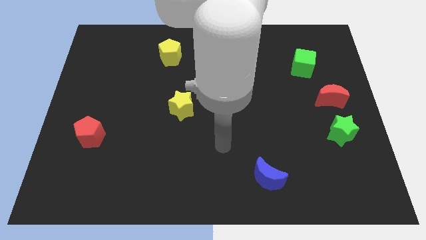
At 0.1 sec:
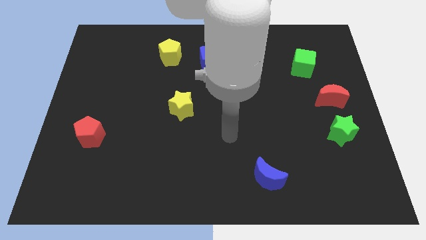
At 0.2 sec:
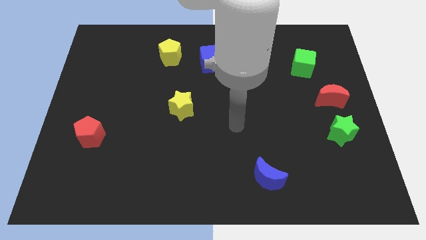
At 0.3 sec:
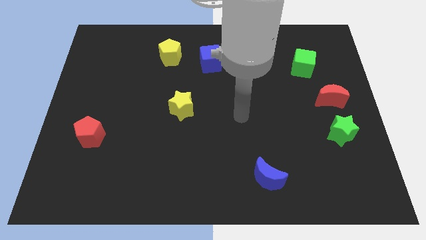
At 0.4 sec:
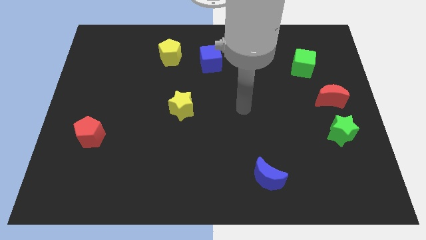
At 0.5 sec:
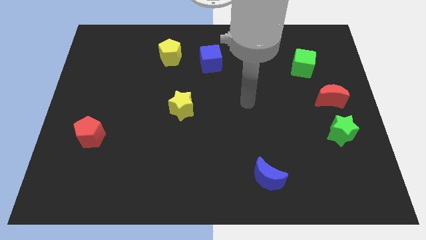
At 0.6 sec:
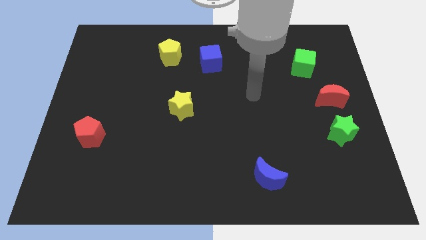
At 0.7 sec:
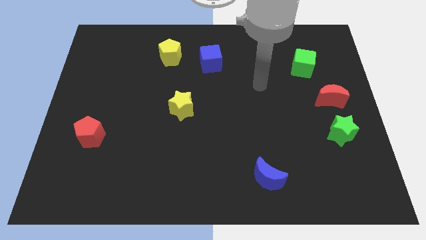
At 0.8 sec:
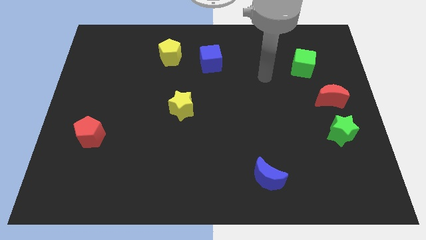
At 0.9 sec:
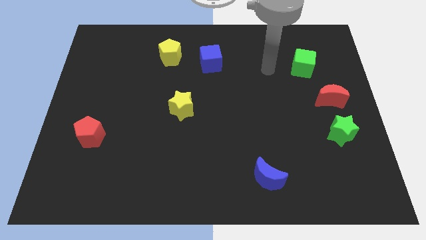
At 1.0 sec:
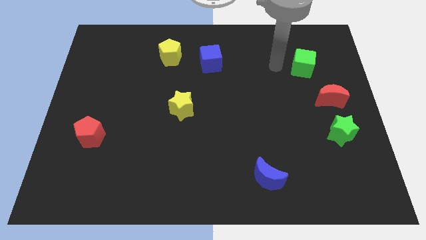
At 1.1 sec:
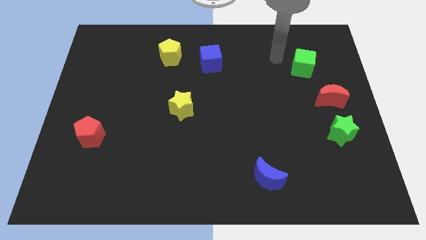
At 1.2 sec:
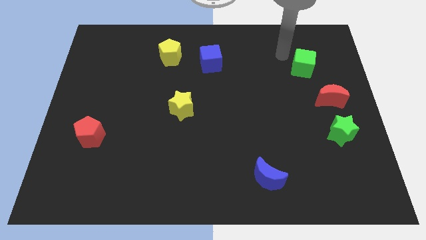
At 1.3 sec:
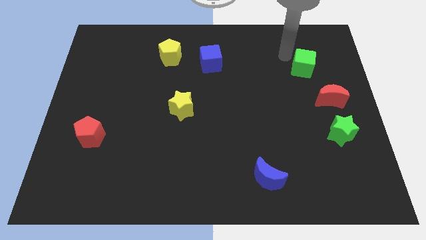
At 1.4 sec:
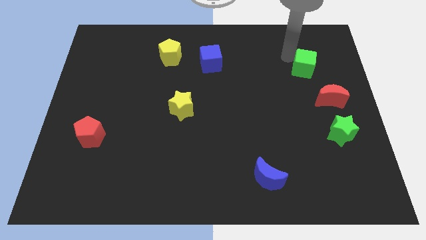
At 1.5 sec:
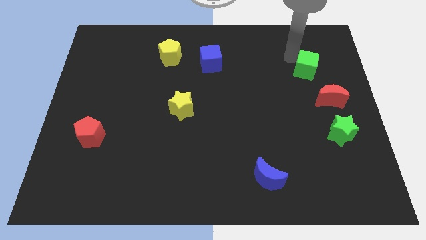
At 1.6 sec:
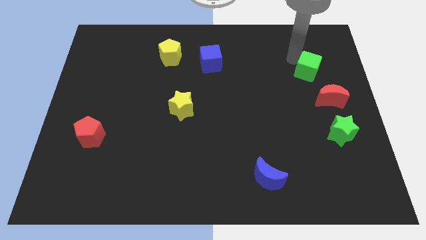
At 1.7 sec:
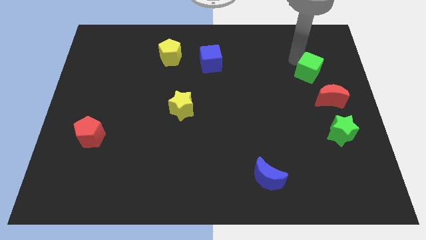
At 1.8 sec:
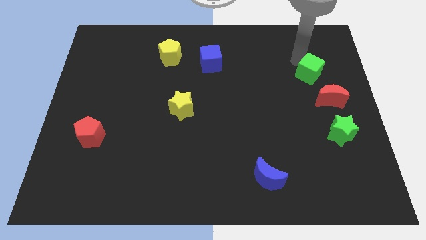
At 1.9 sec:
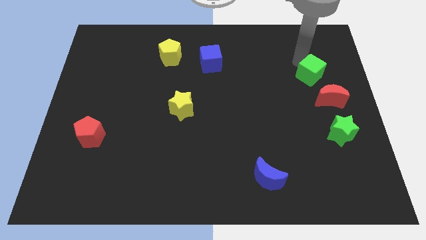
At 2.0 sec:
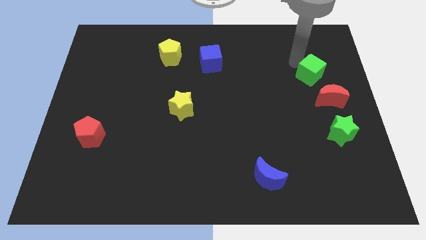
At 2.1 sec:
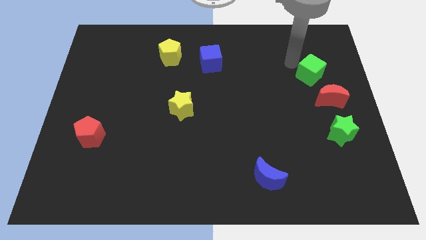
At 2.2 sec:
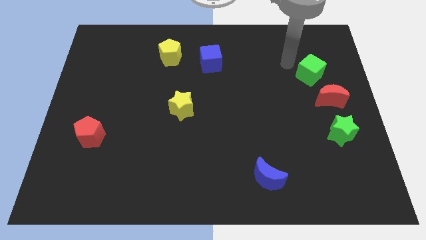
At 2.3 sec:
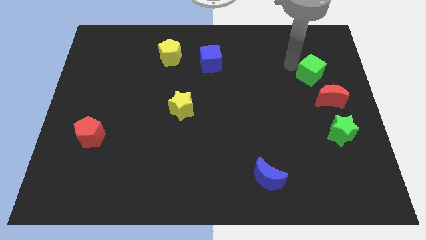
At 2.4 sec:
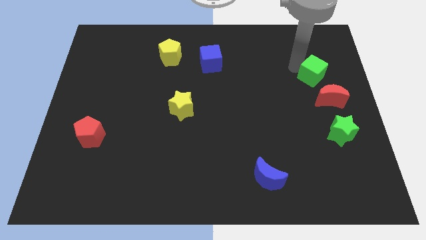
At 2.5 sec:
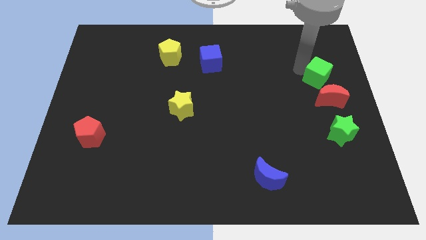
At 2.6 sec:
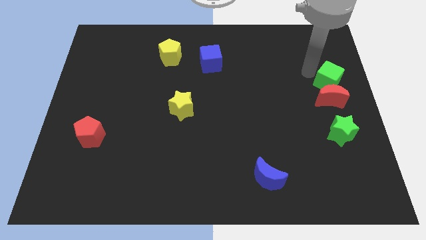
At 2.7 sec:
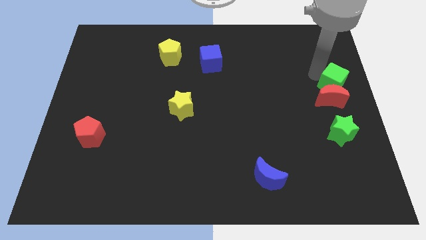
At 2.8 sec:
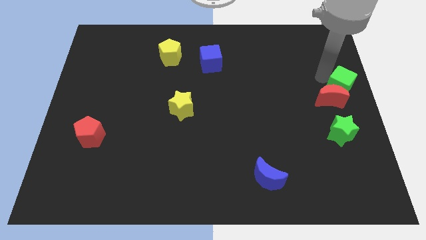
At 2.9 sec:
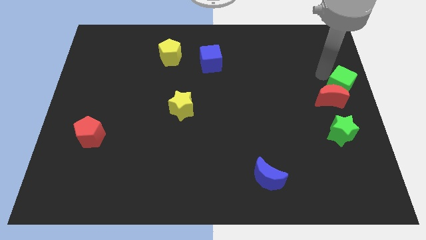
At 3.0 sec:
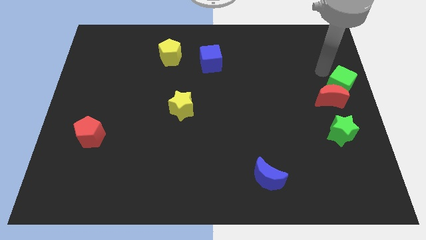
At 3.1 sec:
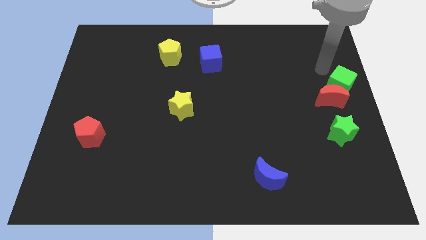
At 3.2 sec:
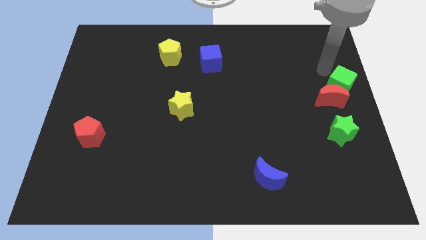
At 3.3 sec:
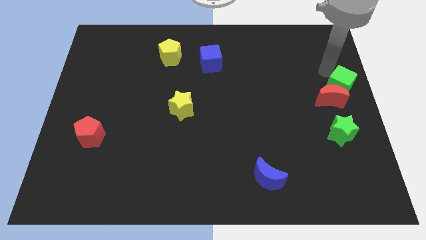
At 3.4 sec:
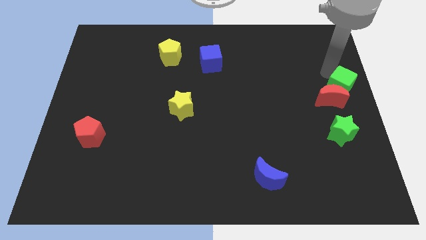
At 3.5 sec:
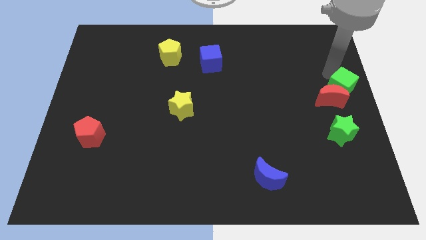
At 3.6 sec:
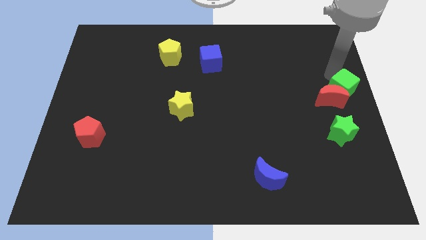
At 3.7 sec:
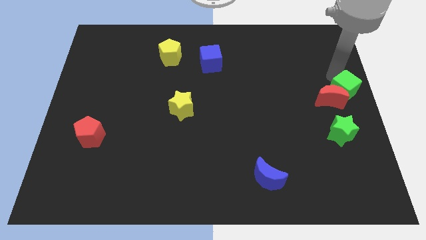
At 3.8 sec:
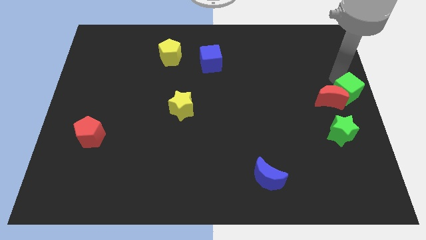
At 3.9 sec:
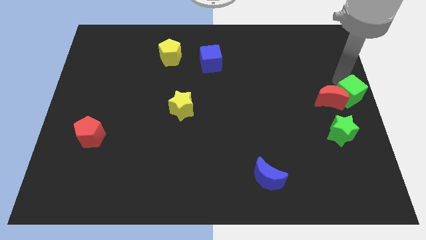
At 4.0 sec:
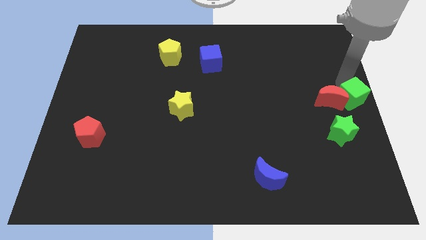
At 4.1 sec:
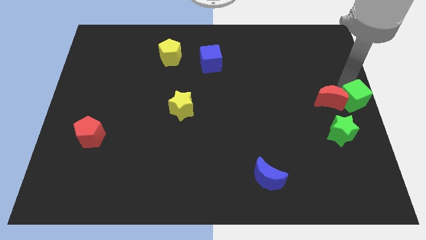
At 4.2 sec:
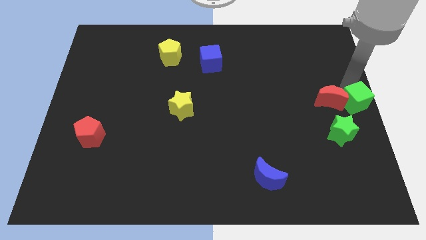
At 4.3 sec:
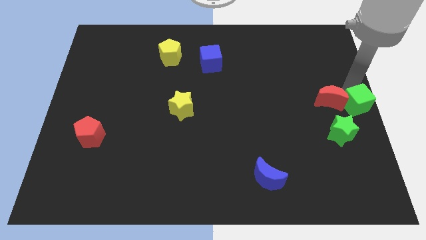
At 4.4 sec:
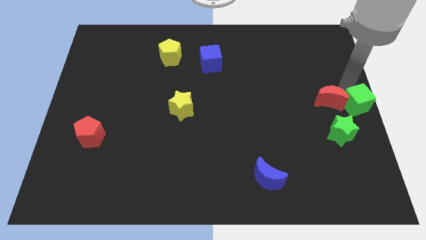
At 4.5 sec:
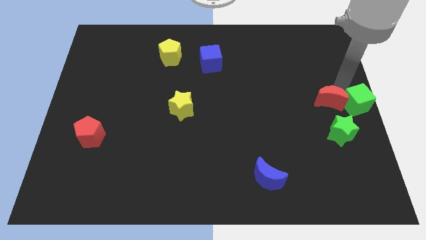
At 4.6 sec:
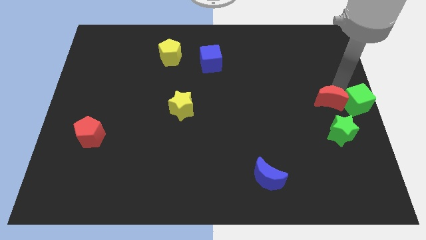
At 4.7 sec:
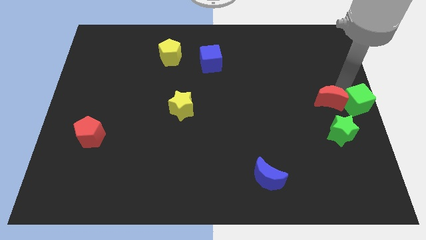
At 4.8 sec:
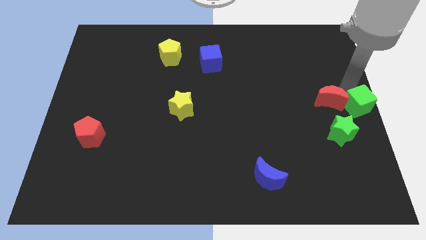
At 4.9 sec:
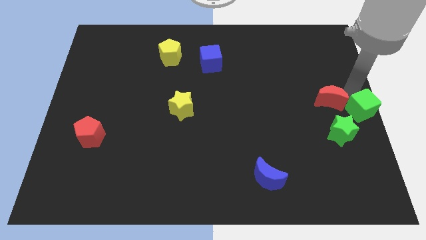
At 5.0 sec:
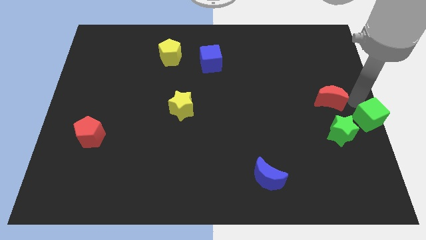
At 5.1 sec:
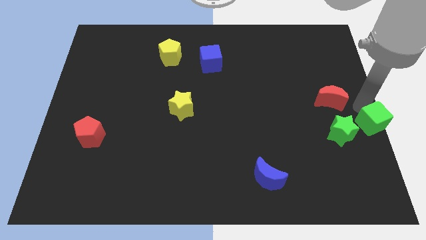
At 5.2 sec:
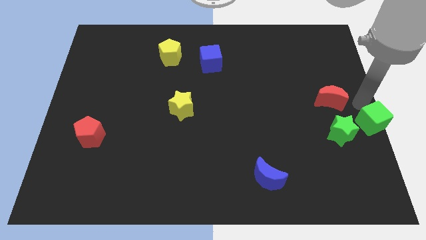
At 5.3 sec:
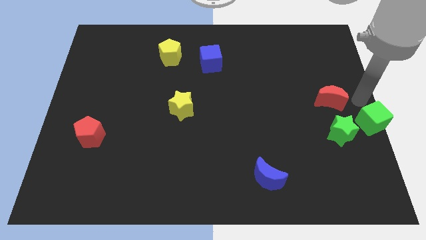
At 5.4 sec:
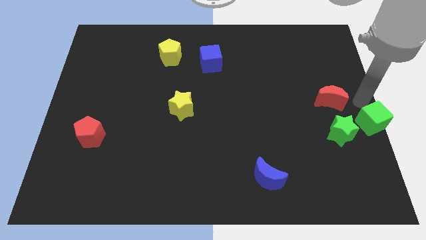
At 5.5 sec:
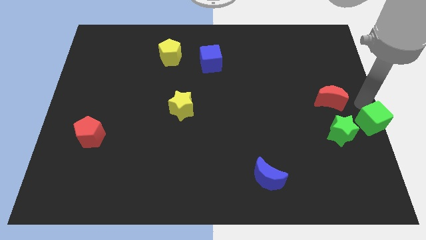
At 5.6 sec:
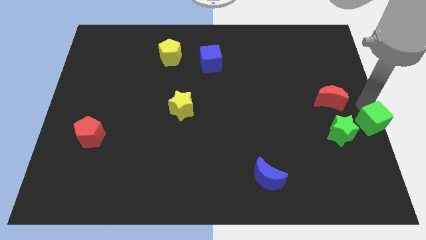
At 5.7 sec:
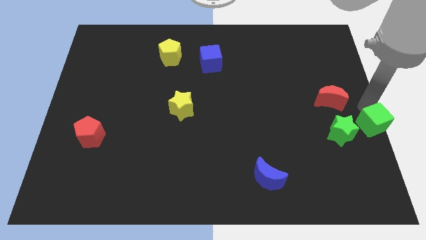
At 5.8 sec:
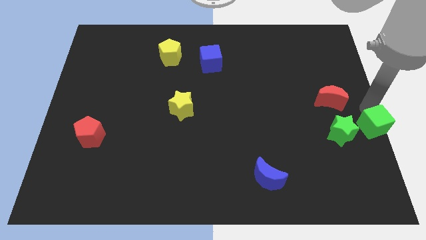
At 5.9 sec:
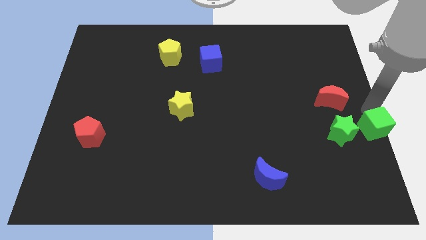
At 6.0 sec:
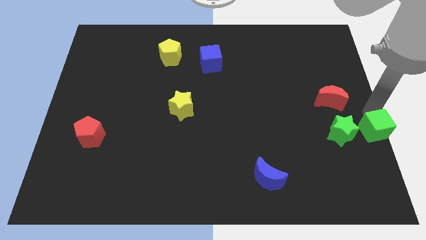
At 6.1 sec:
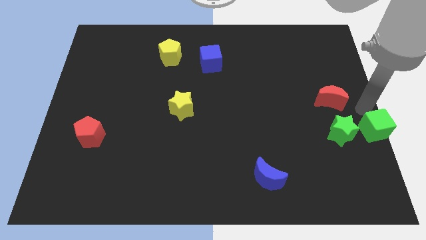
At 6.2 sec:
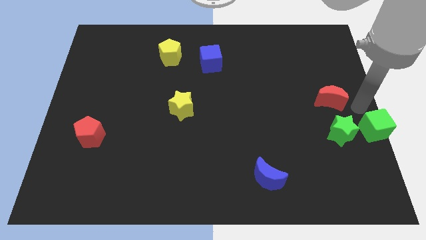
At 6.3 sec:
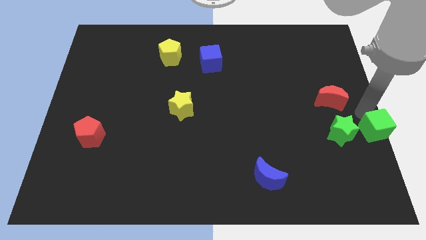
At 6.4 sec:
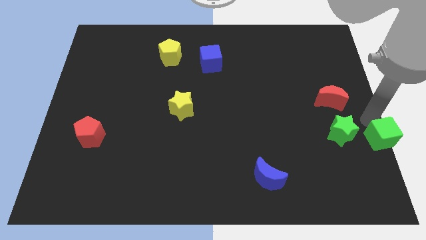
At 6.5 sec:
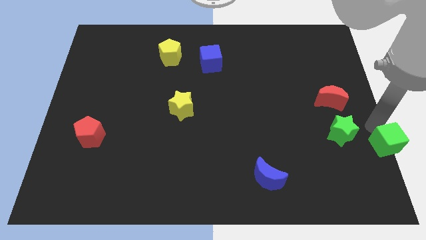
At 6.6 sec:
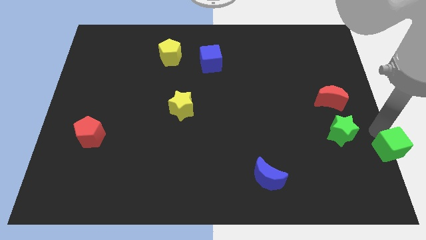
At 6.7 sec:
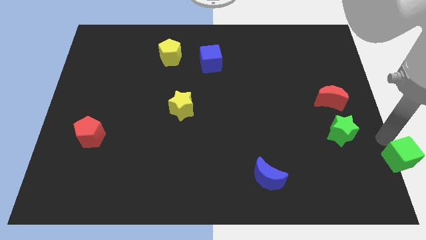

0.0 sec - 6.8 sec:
push the green cube to the lower right corner
